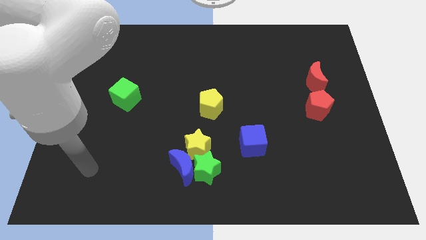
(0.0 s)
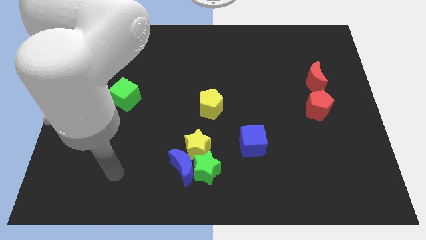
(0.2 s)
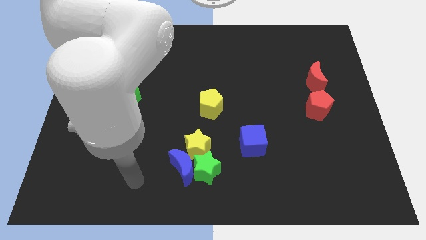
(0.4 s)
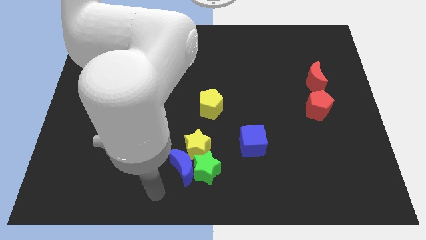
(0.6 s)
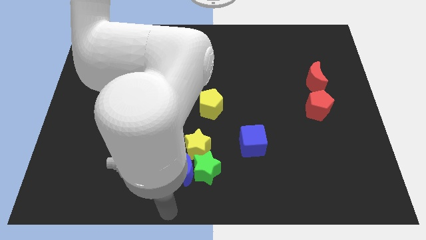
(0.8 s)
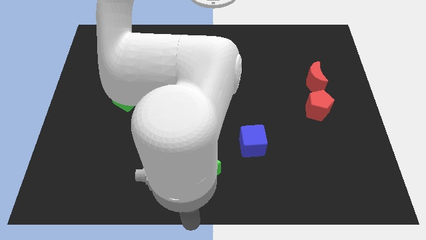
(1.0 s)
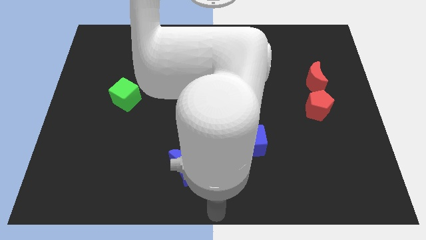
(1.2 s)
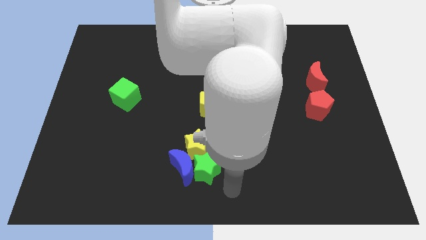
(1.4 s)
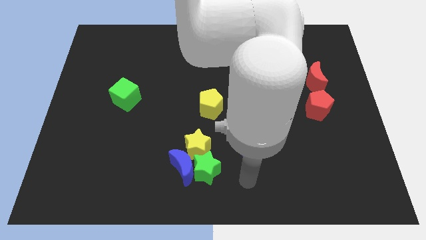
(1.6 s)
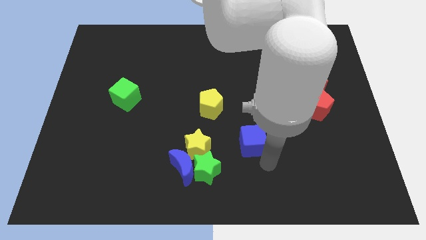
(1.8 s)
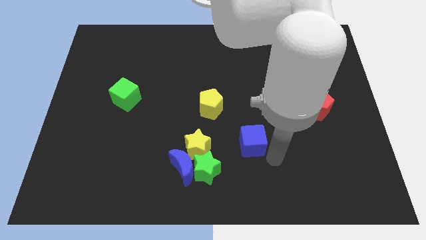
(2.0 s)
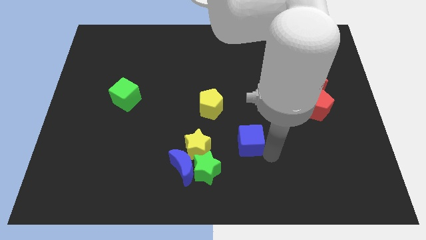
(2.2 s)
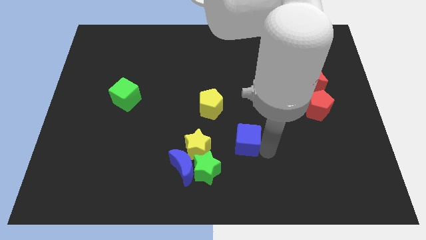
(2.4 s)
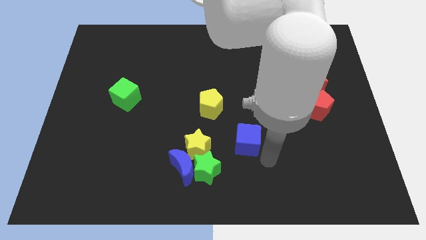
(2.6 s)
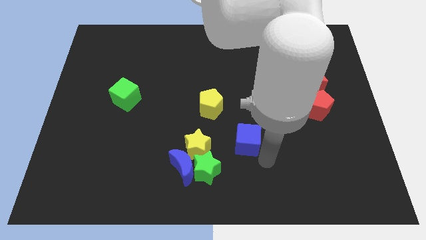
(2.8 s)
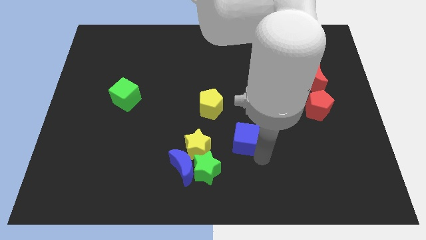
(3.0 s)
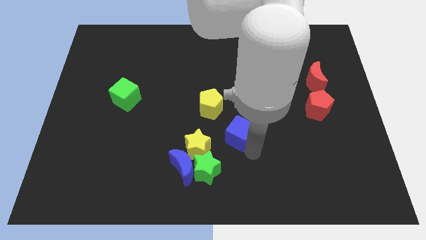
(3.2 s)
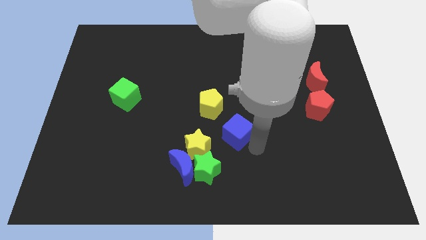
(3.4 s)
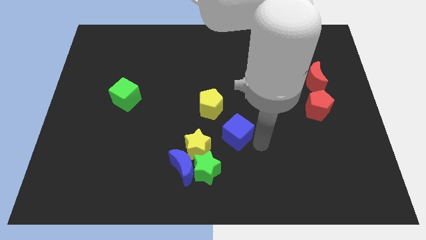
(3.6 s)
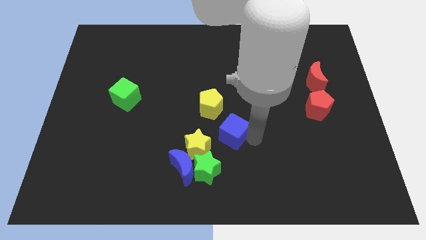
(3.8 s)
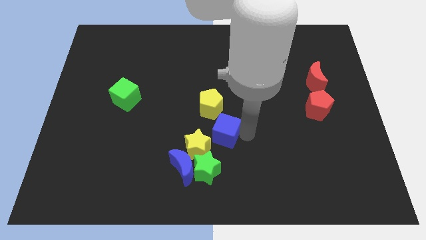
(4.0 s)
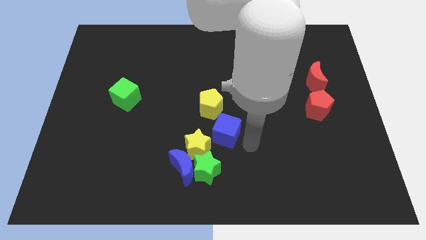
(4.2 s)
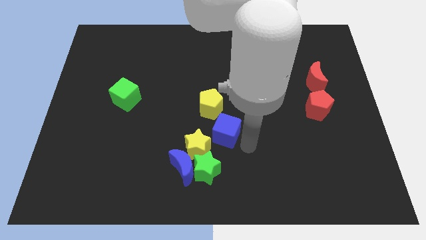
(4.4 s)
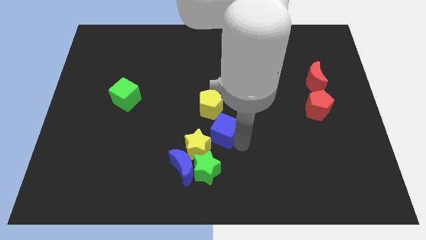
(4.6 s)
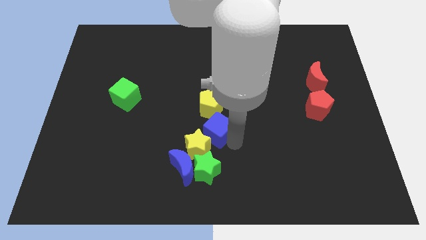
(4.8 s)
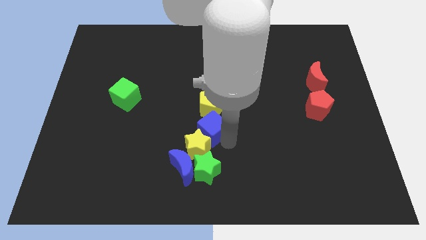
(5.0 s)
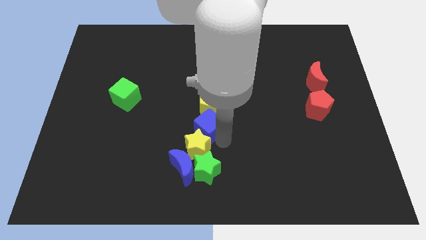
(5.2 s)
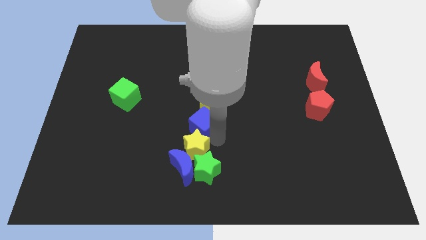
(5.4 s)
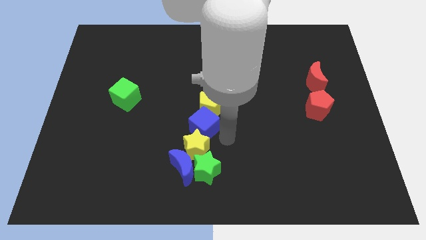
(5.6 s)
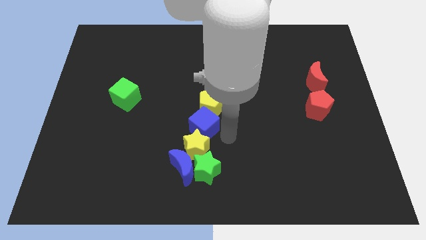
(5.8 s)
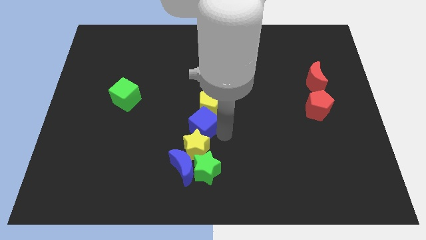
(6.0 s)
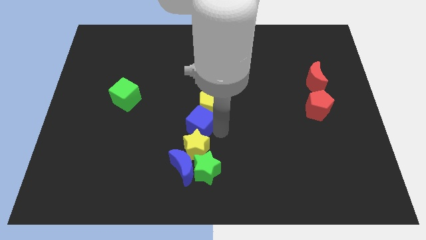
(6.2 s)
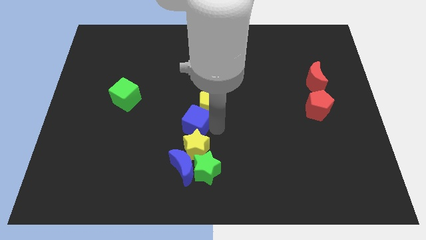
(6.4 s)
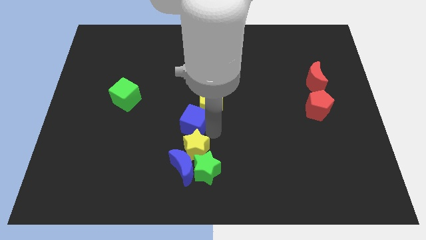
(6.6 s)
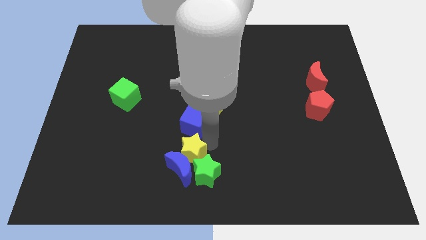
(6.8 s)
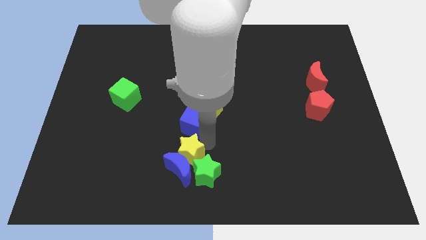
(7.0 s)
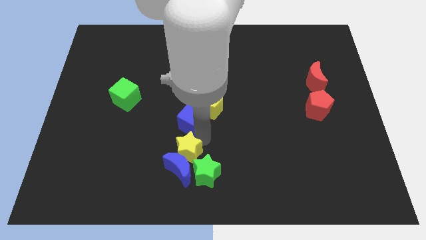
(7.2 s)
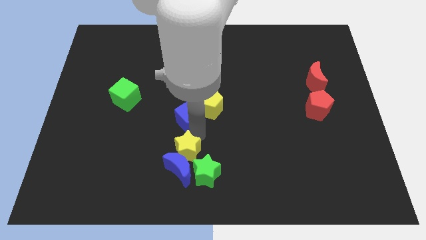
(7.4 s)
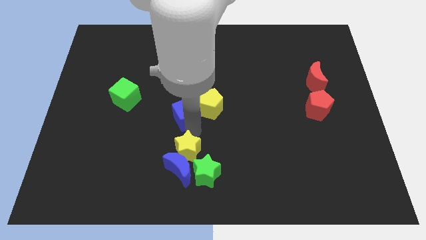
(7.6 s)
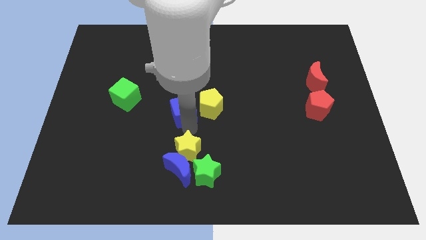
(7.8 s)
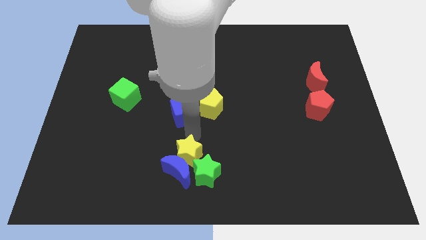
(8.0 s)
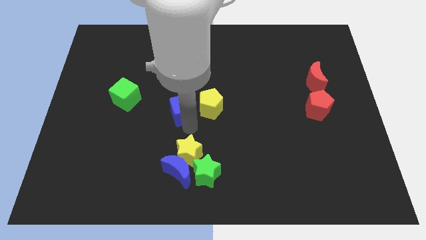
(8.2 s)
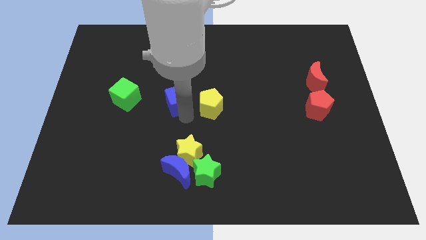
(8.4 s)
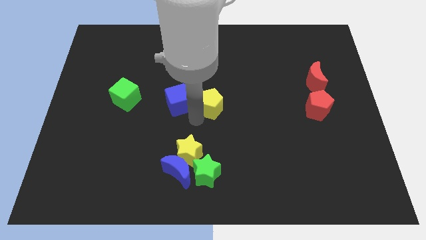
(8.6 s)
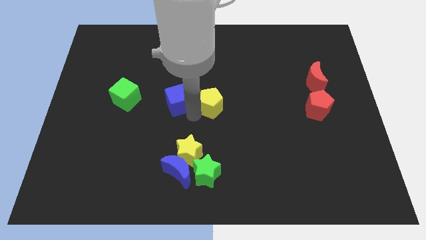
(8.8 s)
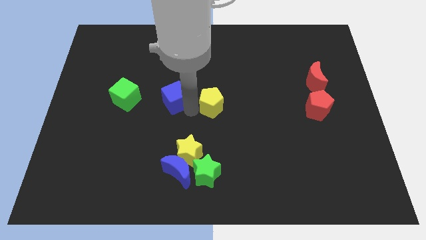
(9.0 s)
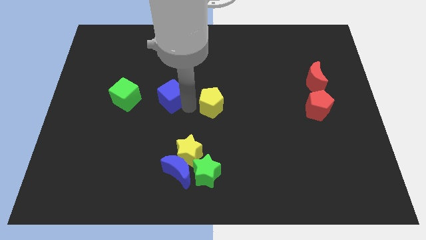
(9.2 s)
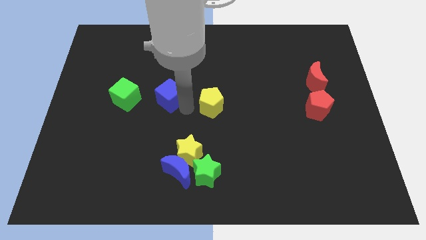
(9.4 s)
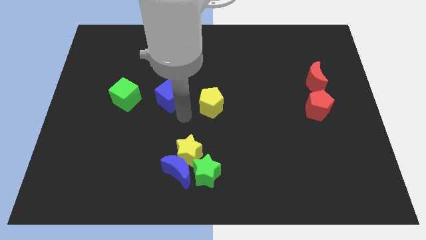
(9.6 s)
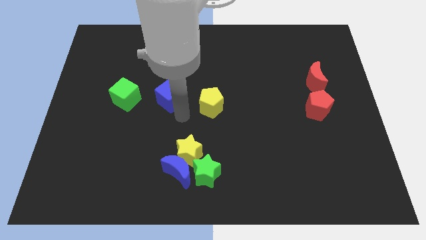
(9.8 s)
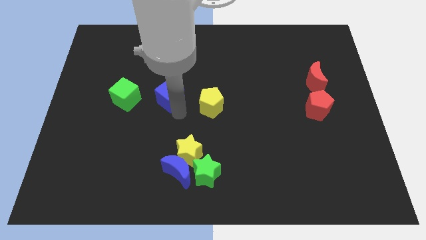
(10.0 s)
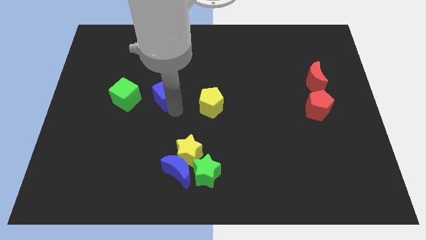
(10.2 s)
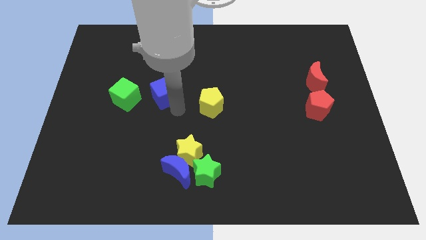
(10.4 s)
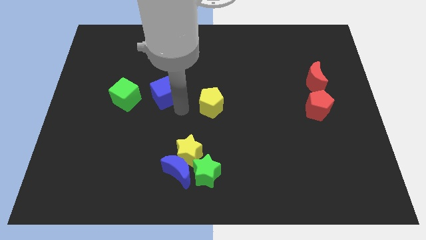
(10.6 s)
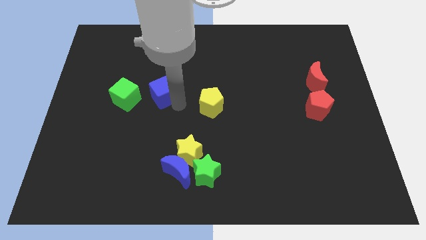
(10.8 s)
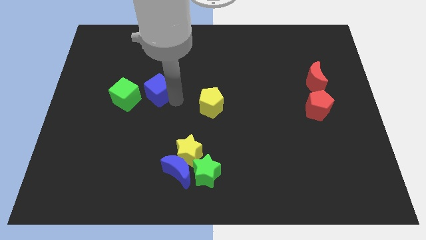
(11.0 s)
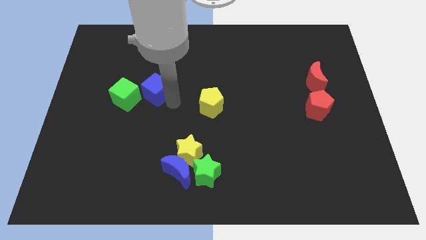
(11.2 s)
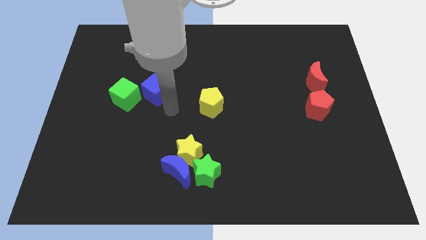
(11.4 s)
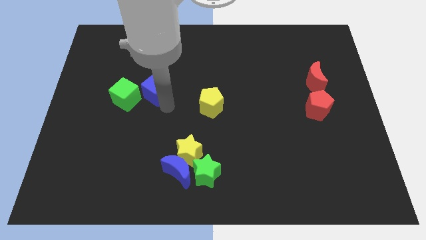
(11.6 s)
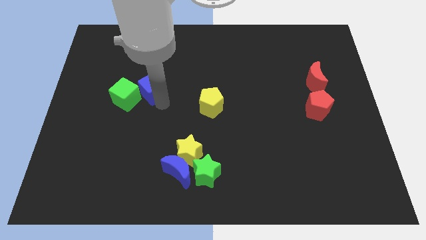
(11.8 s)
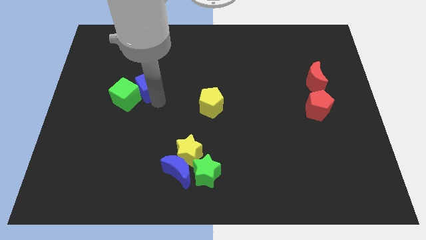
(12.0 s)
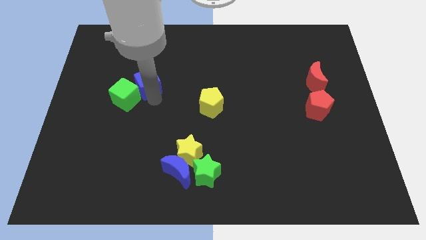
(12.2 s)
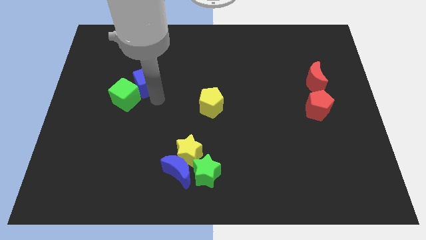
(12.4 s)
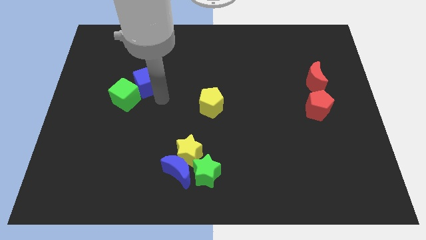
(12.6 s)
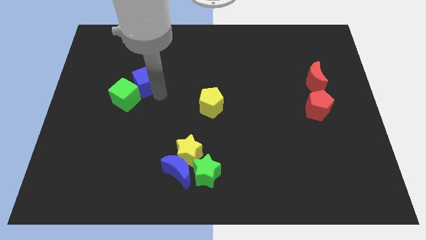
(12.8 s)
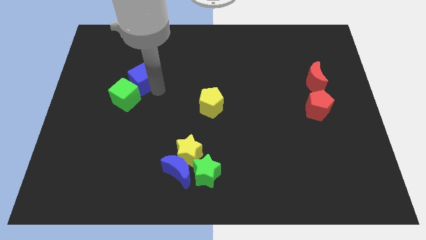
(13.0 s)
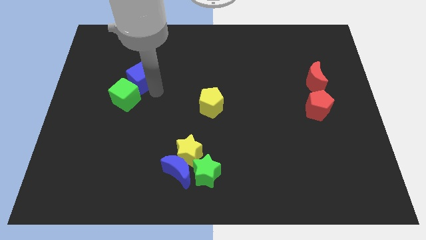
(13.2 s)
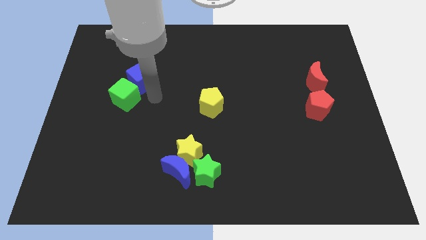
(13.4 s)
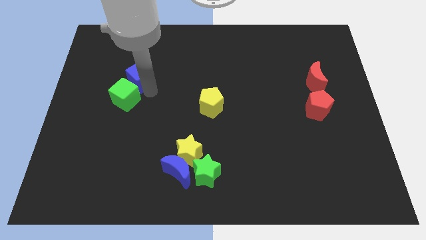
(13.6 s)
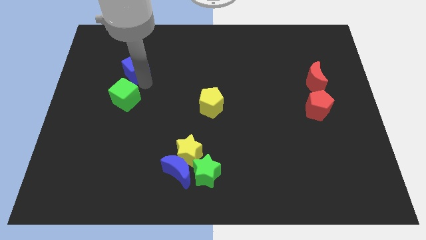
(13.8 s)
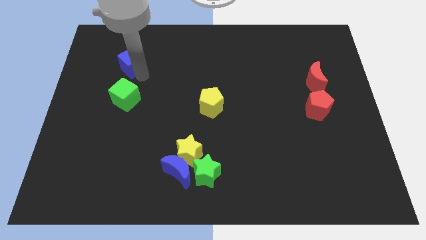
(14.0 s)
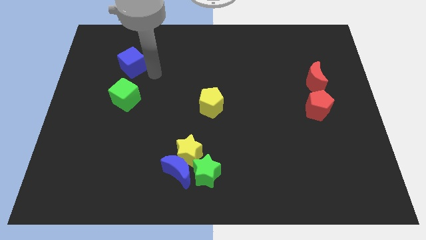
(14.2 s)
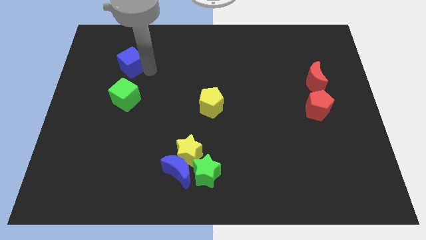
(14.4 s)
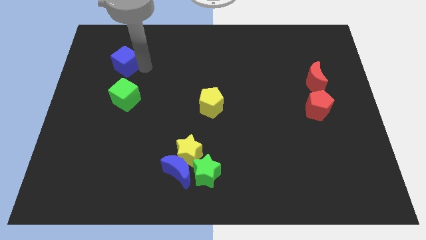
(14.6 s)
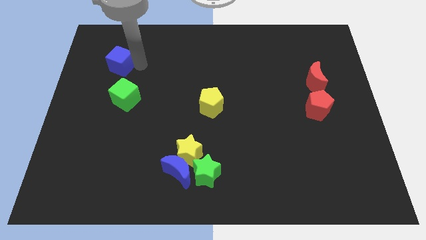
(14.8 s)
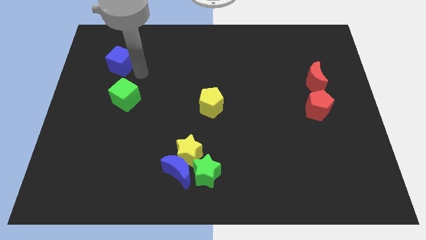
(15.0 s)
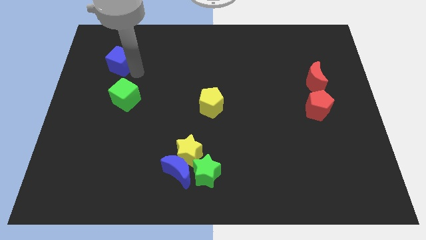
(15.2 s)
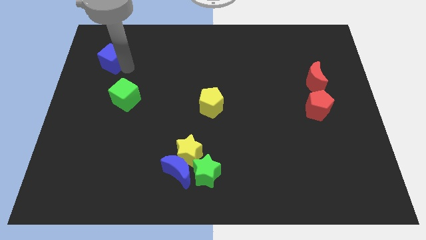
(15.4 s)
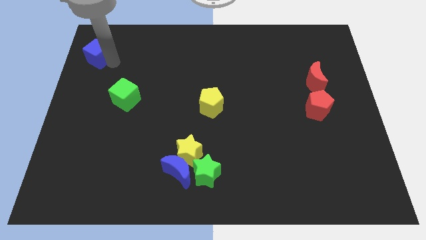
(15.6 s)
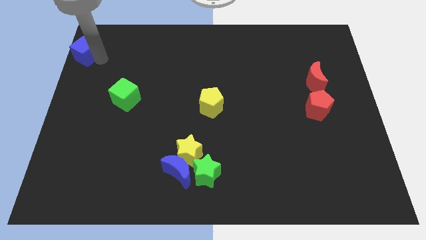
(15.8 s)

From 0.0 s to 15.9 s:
push the blue cube to the top left
